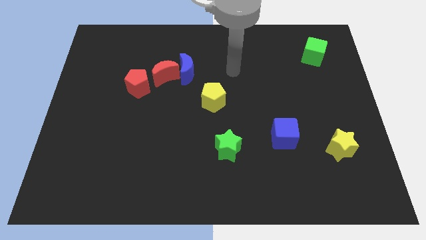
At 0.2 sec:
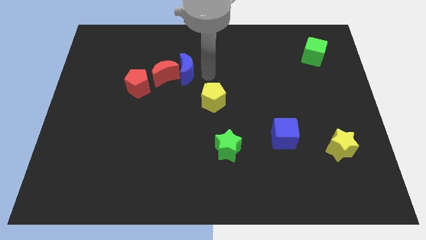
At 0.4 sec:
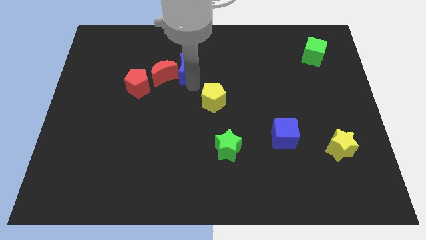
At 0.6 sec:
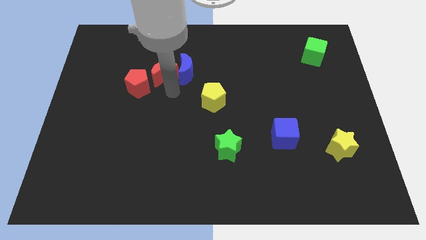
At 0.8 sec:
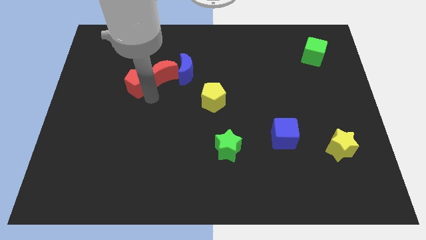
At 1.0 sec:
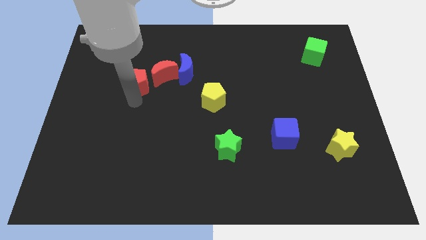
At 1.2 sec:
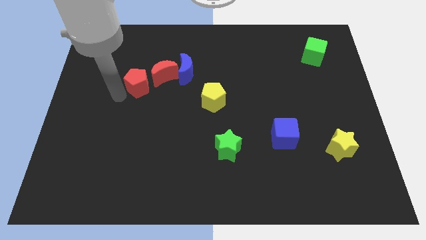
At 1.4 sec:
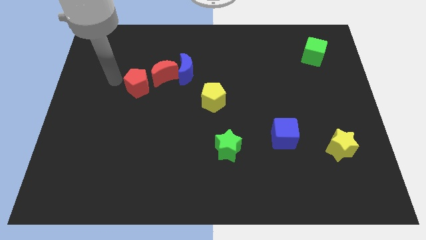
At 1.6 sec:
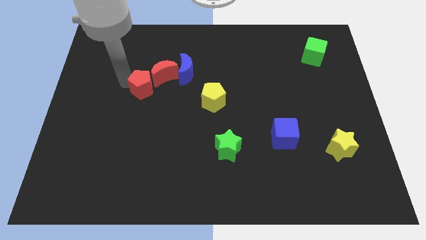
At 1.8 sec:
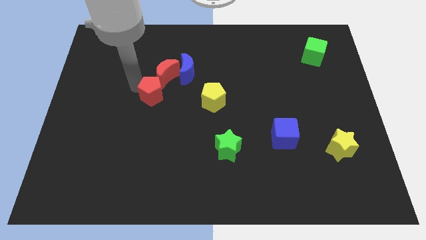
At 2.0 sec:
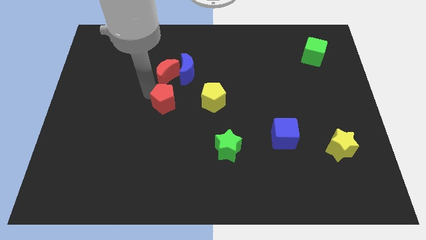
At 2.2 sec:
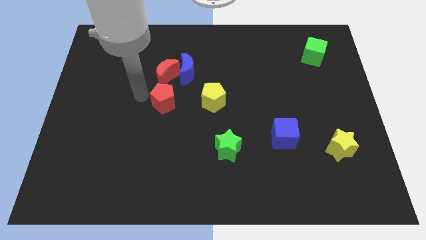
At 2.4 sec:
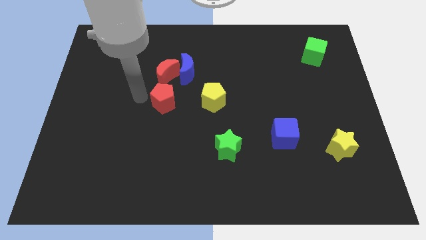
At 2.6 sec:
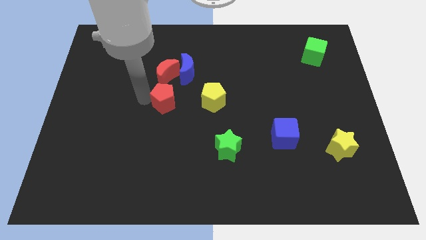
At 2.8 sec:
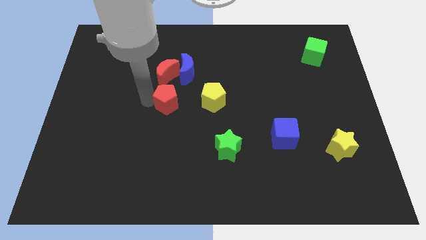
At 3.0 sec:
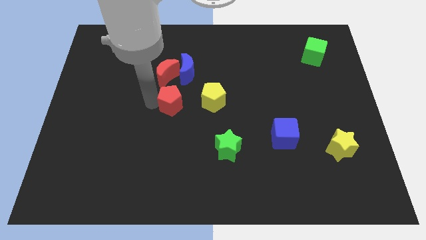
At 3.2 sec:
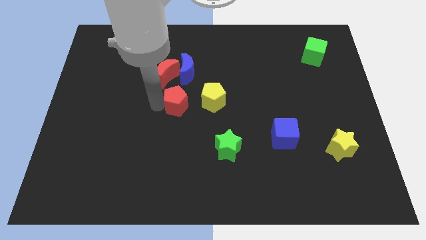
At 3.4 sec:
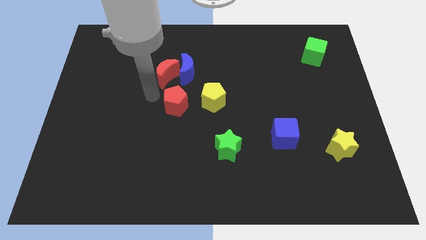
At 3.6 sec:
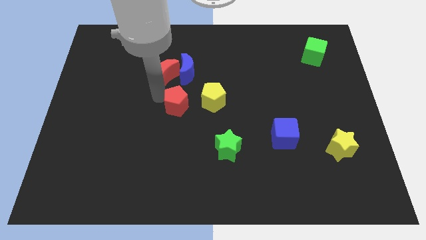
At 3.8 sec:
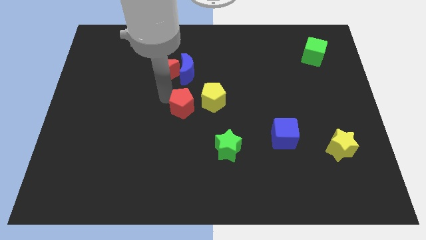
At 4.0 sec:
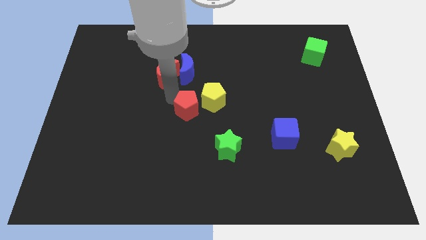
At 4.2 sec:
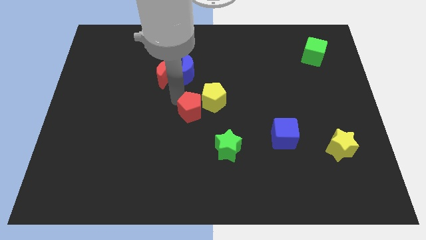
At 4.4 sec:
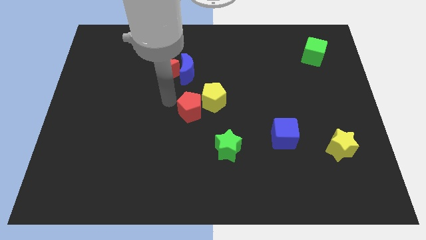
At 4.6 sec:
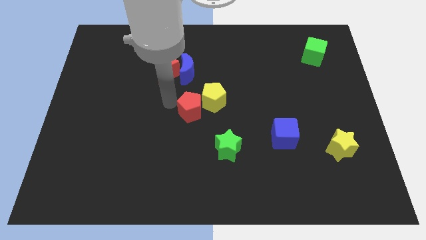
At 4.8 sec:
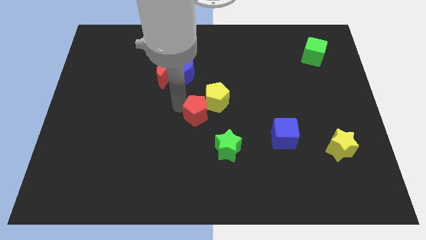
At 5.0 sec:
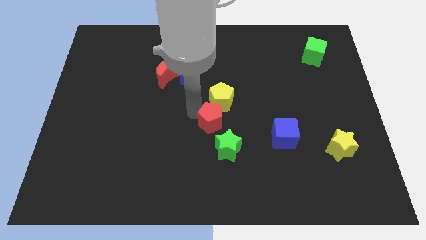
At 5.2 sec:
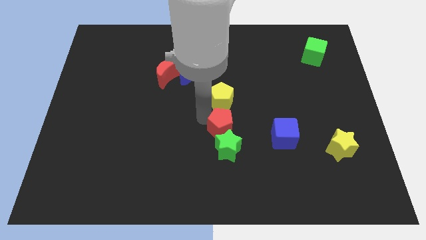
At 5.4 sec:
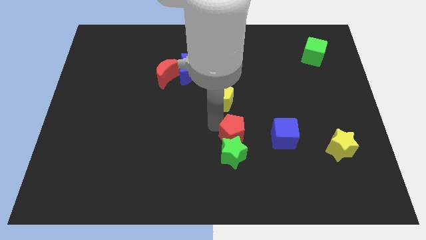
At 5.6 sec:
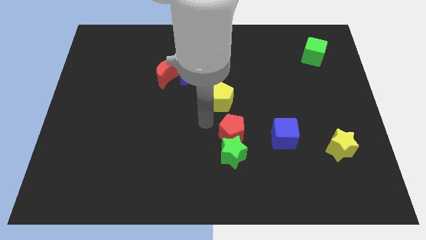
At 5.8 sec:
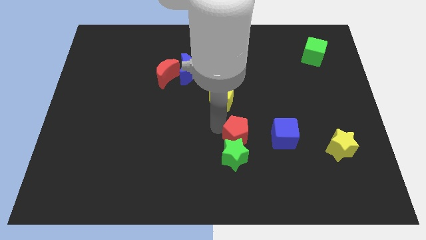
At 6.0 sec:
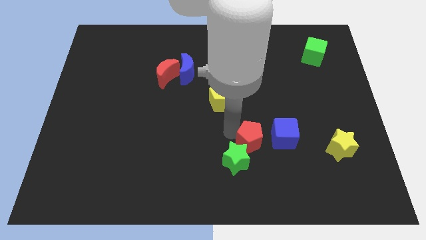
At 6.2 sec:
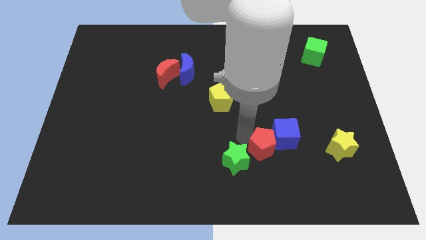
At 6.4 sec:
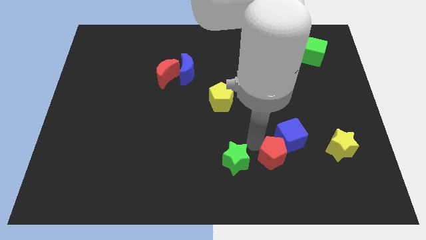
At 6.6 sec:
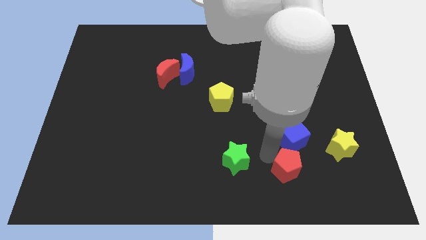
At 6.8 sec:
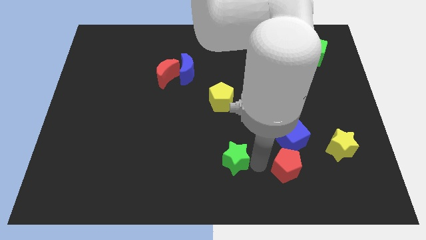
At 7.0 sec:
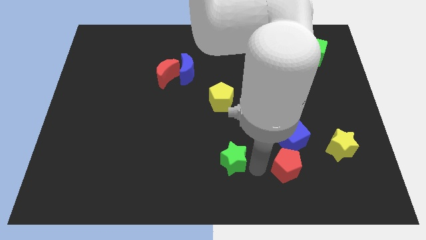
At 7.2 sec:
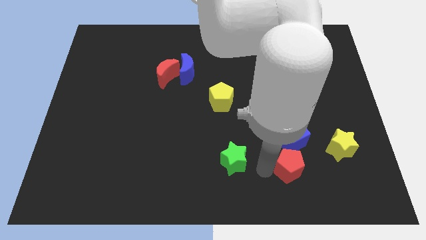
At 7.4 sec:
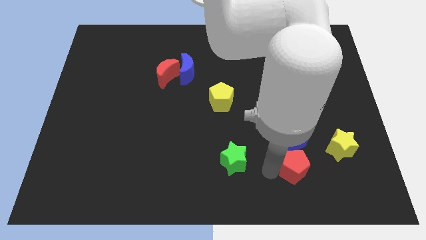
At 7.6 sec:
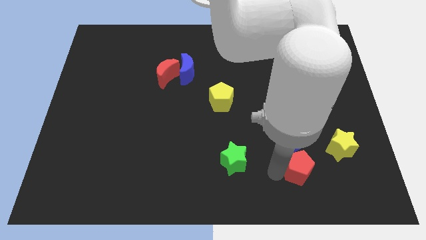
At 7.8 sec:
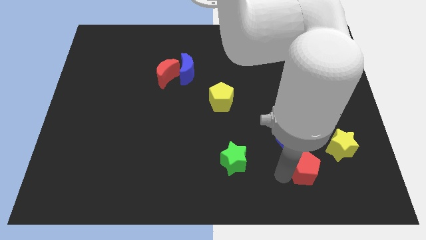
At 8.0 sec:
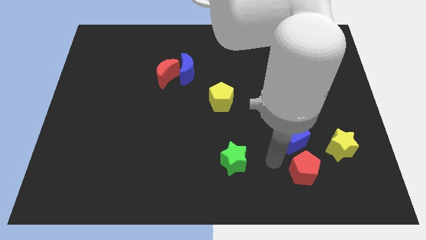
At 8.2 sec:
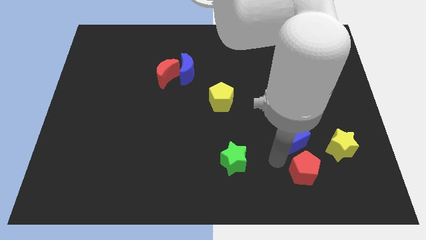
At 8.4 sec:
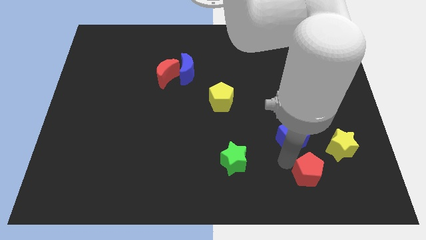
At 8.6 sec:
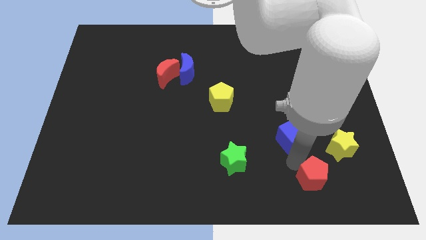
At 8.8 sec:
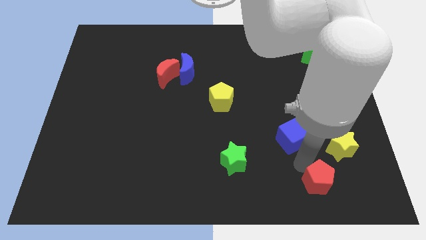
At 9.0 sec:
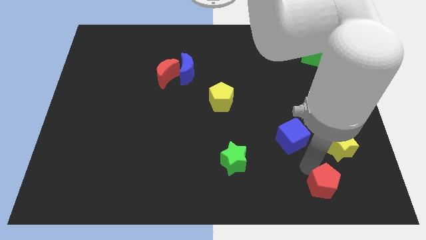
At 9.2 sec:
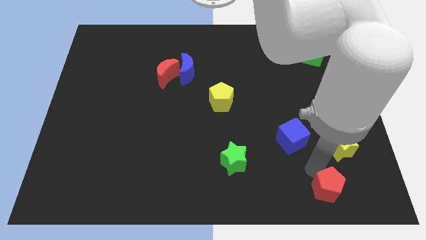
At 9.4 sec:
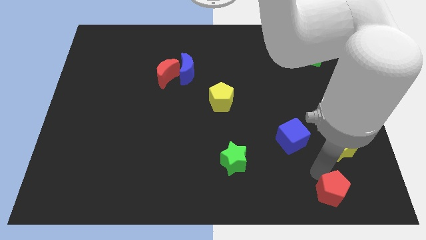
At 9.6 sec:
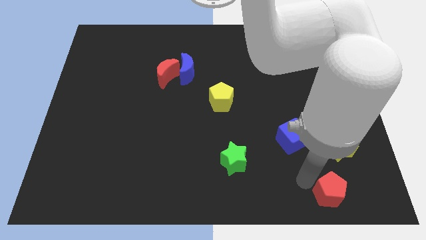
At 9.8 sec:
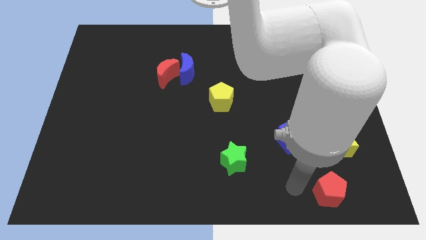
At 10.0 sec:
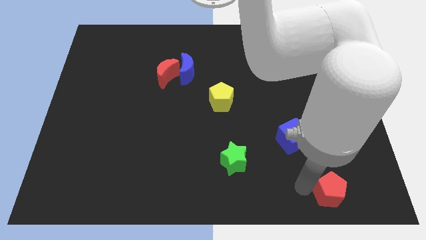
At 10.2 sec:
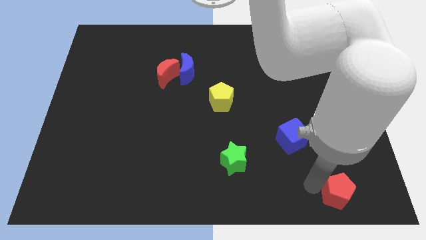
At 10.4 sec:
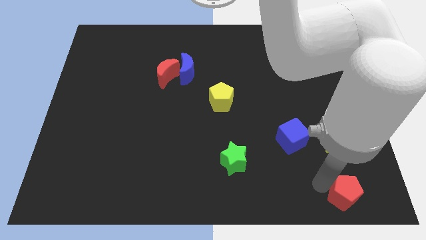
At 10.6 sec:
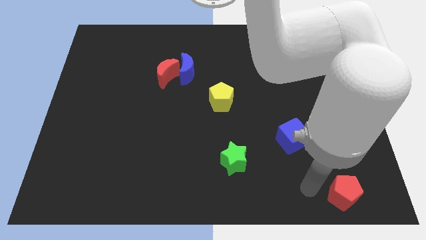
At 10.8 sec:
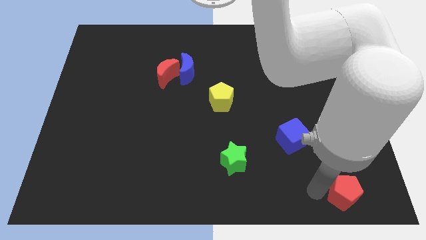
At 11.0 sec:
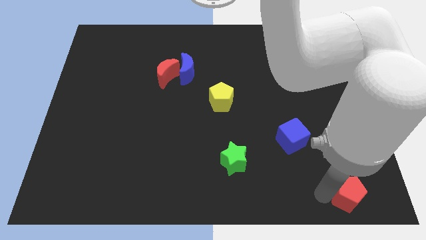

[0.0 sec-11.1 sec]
put the red pentagon to the lower right corner

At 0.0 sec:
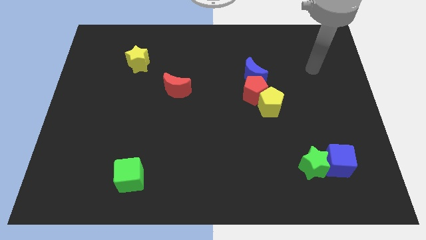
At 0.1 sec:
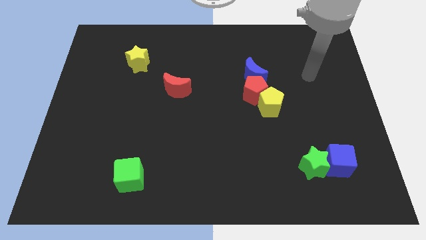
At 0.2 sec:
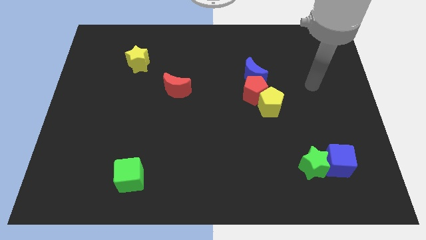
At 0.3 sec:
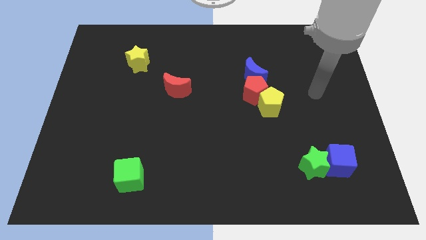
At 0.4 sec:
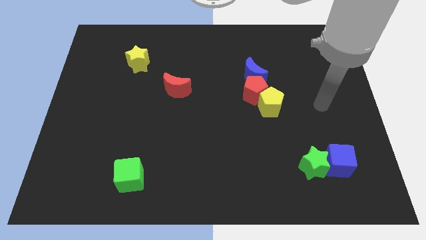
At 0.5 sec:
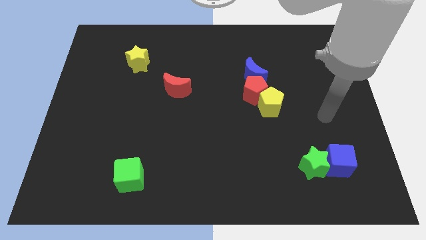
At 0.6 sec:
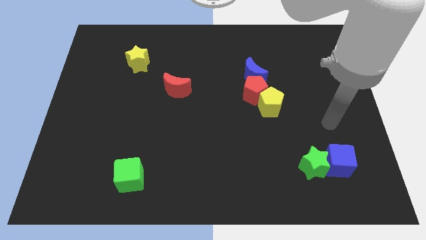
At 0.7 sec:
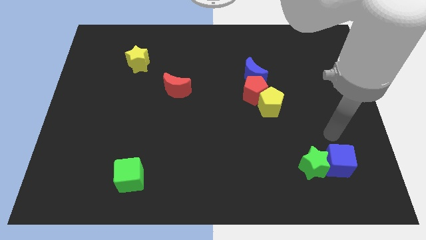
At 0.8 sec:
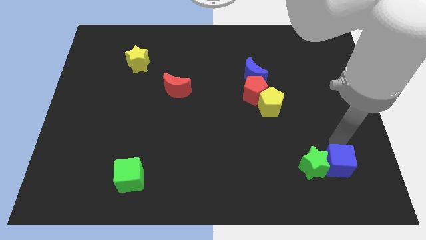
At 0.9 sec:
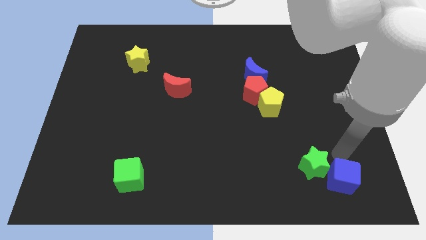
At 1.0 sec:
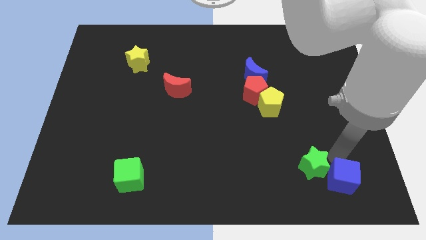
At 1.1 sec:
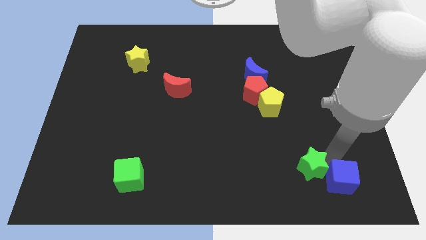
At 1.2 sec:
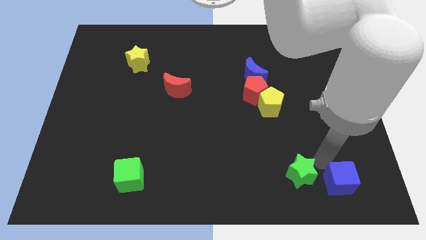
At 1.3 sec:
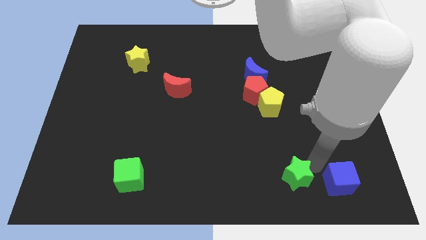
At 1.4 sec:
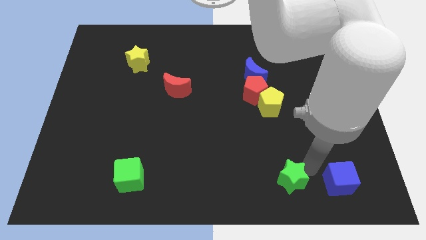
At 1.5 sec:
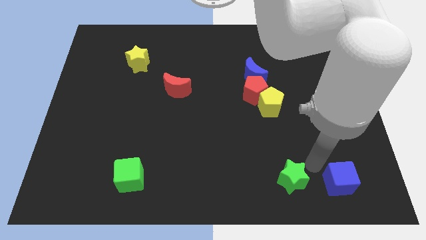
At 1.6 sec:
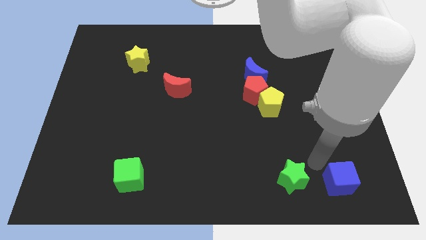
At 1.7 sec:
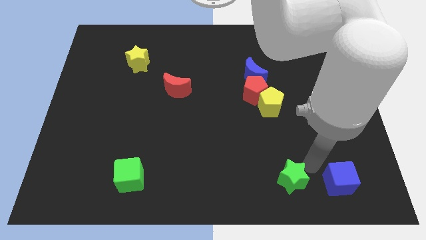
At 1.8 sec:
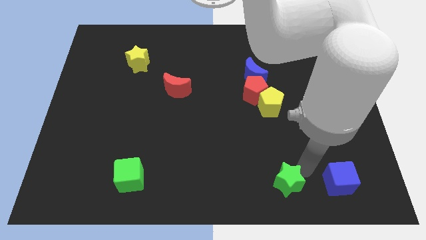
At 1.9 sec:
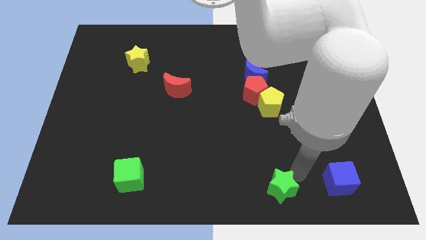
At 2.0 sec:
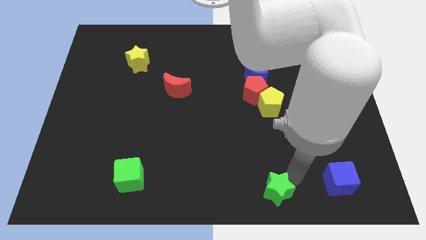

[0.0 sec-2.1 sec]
move the green star to the bottom side
